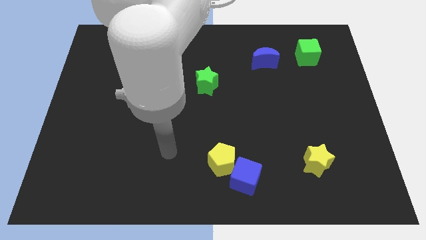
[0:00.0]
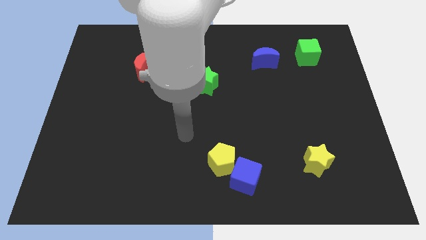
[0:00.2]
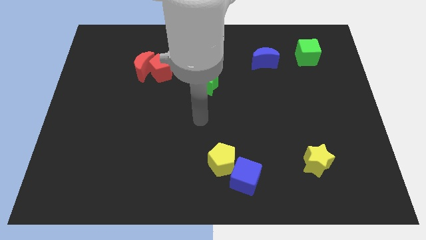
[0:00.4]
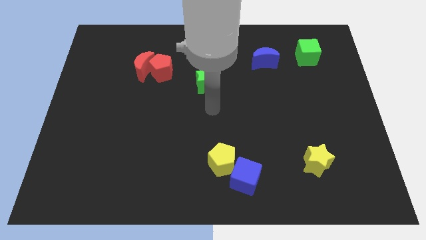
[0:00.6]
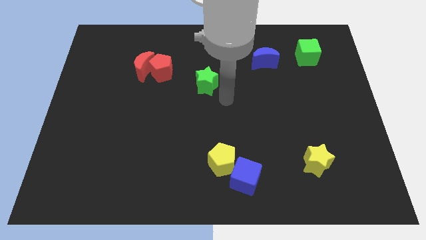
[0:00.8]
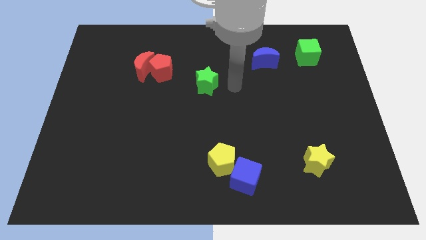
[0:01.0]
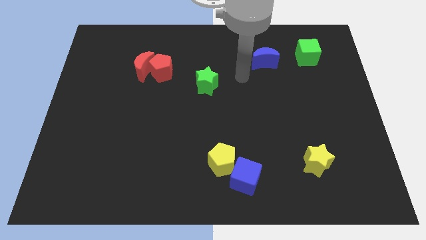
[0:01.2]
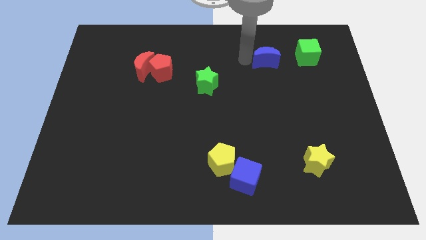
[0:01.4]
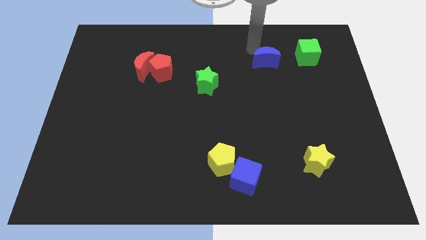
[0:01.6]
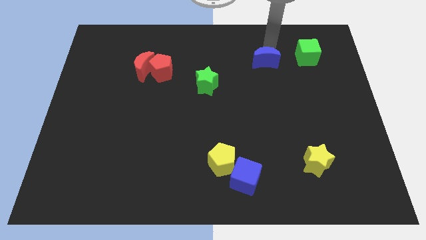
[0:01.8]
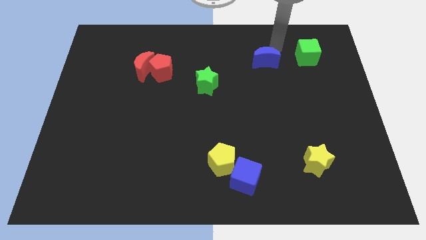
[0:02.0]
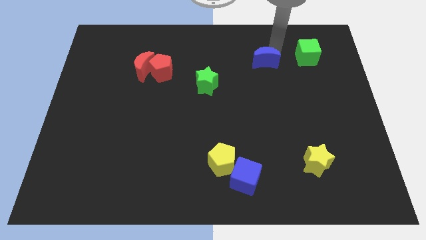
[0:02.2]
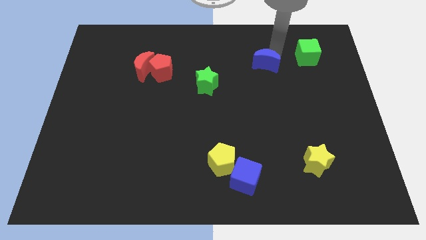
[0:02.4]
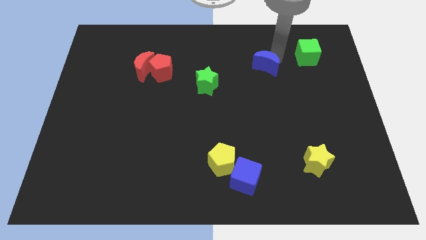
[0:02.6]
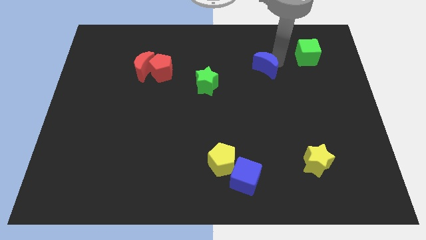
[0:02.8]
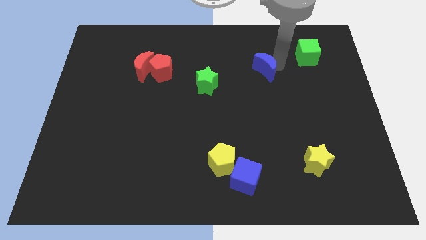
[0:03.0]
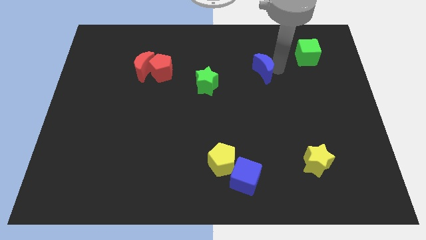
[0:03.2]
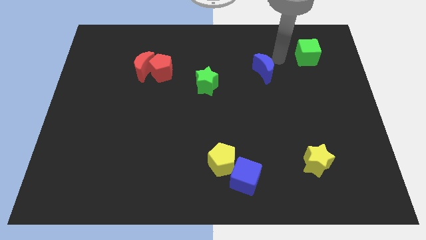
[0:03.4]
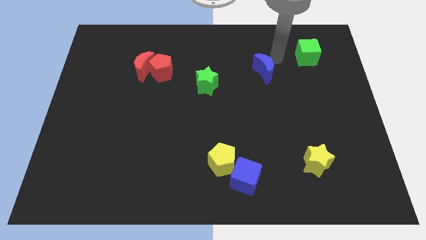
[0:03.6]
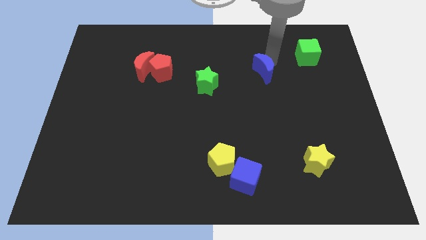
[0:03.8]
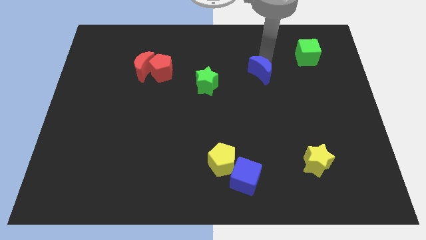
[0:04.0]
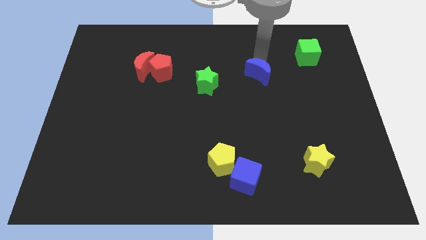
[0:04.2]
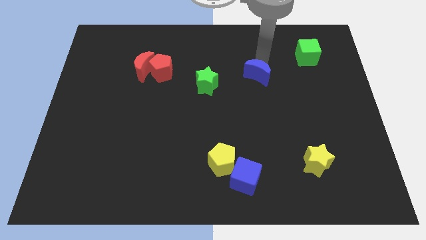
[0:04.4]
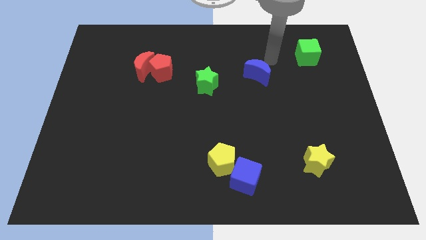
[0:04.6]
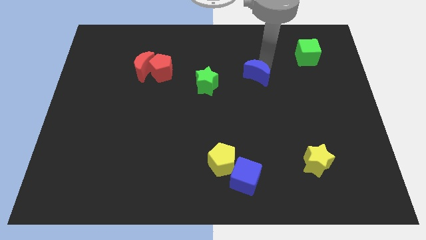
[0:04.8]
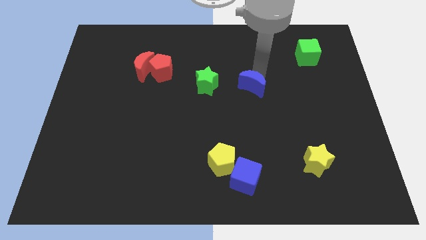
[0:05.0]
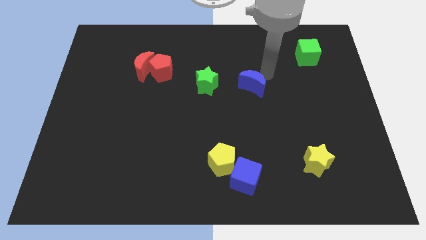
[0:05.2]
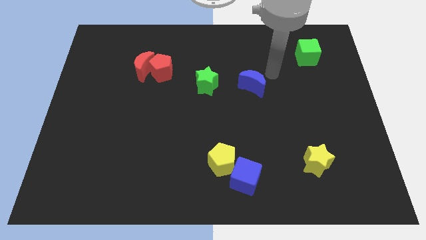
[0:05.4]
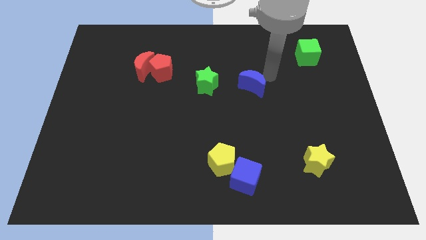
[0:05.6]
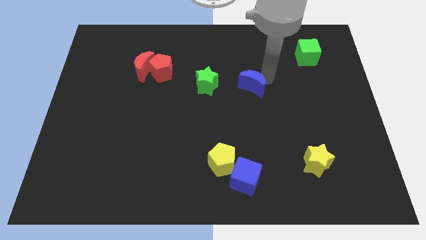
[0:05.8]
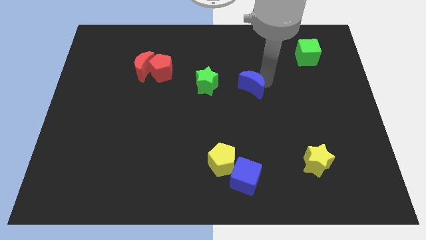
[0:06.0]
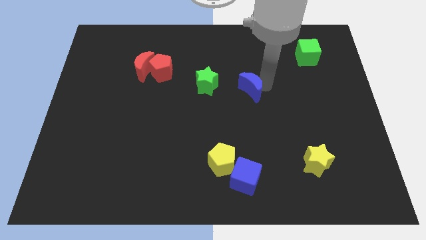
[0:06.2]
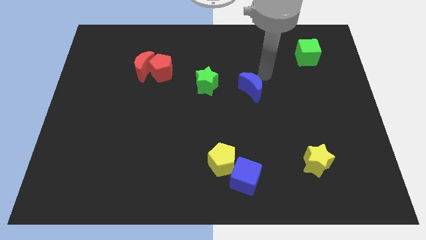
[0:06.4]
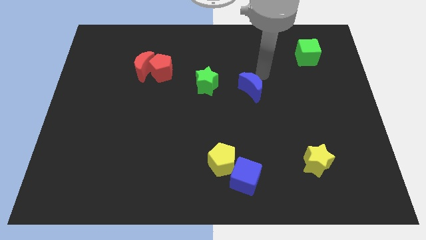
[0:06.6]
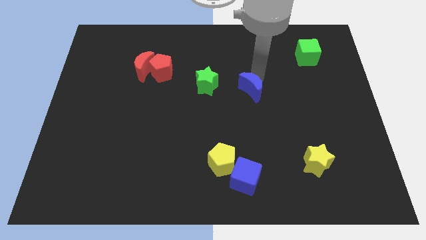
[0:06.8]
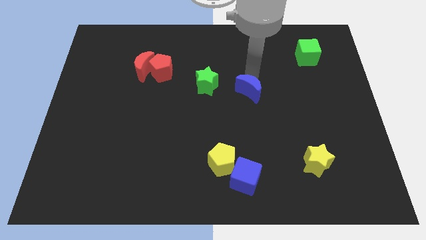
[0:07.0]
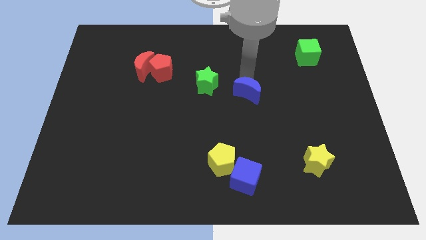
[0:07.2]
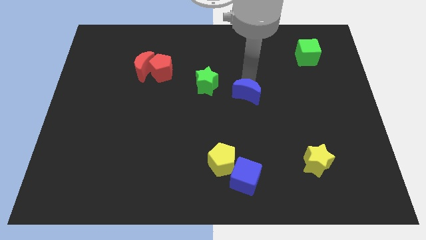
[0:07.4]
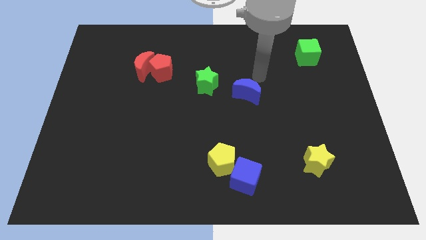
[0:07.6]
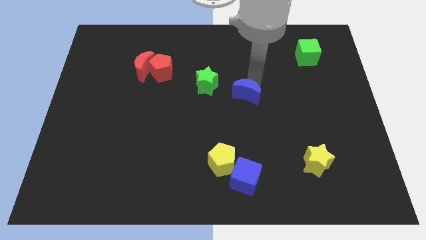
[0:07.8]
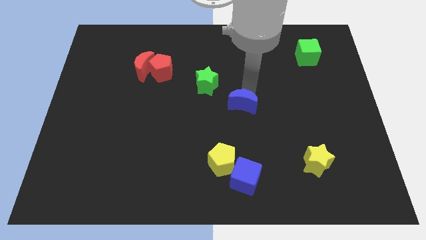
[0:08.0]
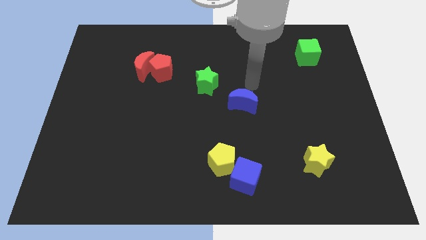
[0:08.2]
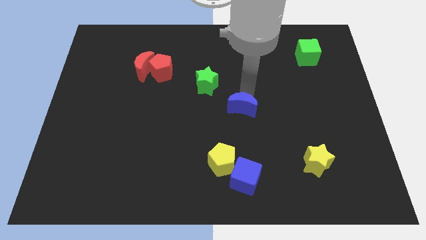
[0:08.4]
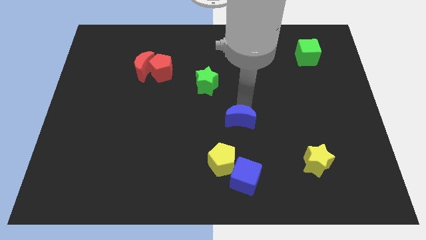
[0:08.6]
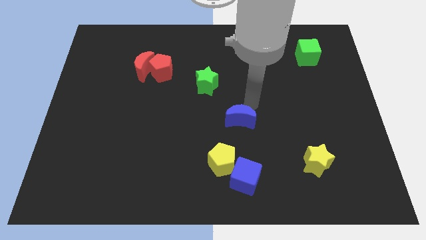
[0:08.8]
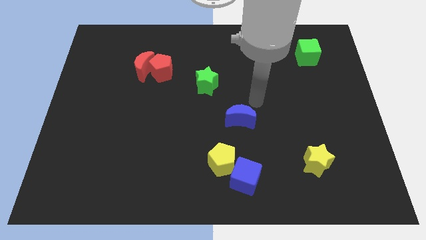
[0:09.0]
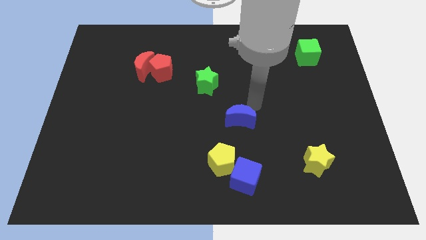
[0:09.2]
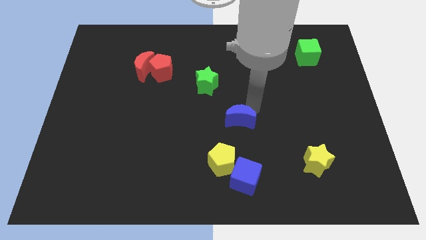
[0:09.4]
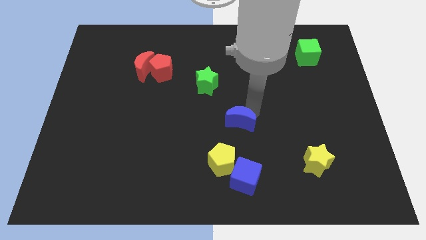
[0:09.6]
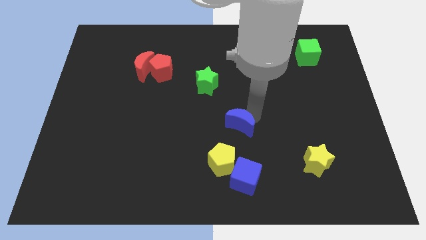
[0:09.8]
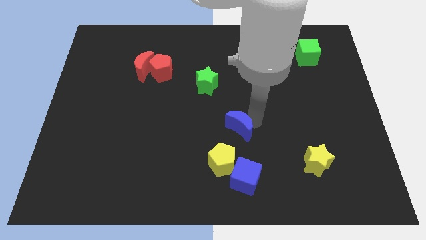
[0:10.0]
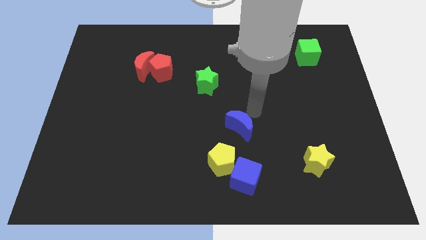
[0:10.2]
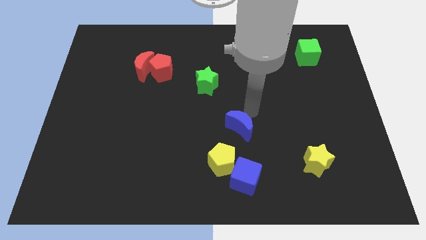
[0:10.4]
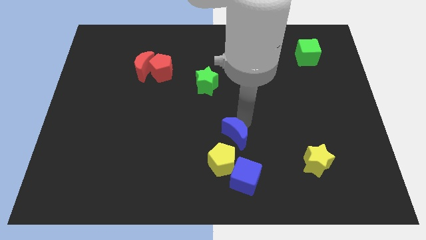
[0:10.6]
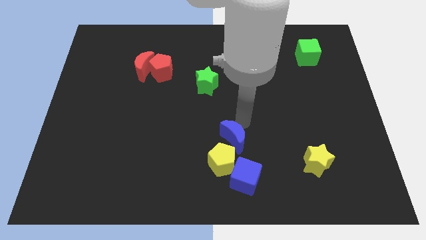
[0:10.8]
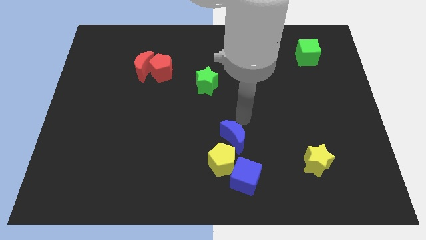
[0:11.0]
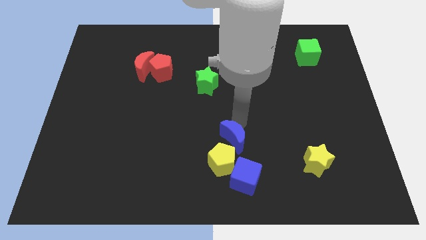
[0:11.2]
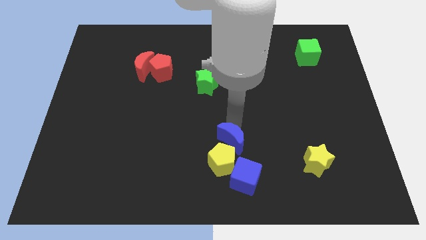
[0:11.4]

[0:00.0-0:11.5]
move the blue moon to the yellow pentagon

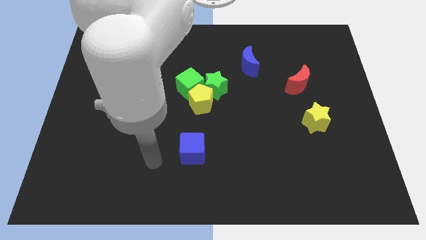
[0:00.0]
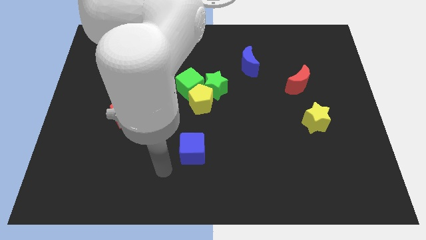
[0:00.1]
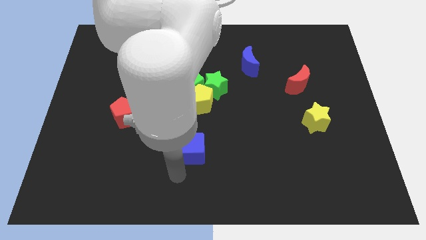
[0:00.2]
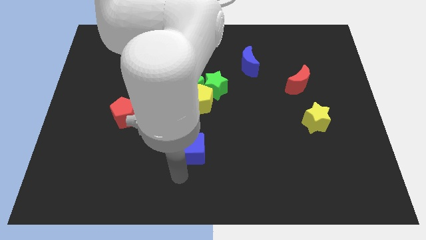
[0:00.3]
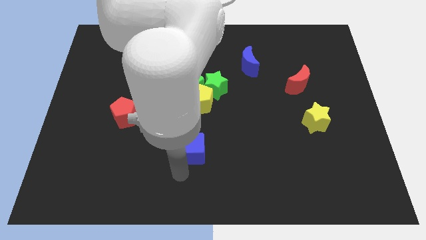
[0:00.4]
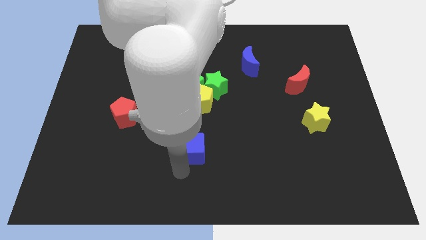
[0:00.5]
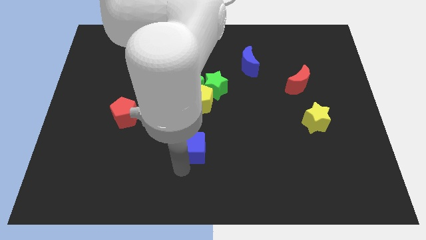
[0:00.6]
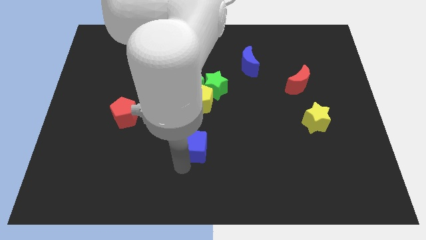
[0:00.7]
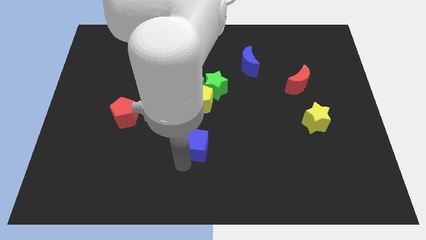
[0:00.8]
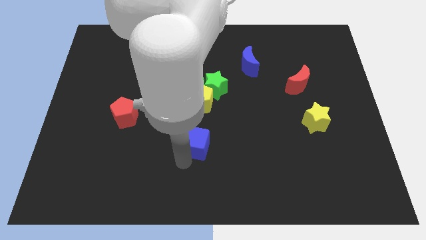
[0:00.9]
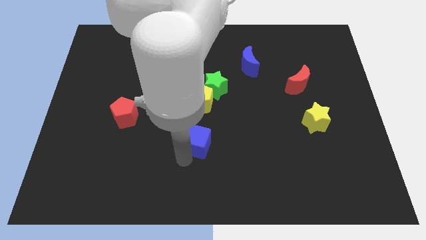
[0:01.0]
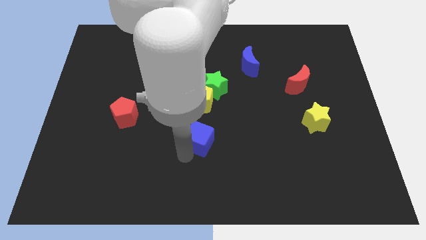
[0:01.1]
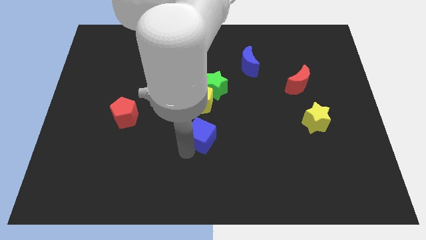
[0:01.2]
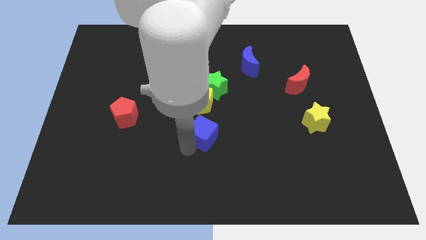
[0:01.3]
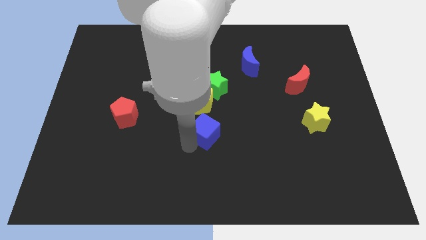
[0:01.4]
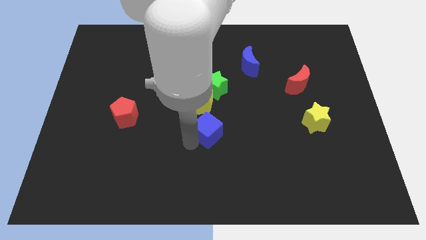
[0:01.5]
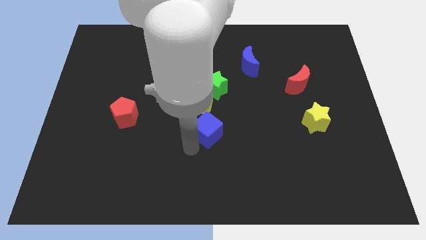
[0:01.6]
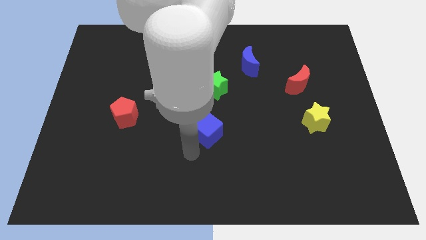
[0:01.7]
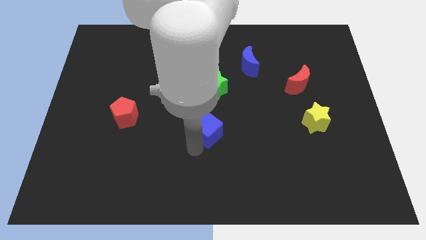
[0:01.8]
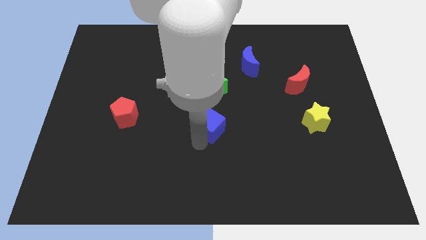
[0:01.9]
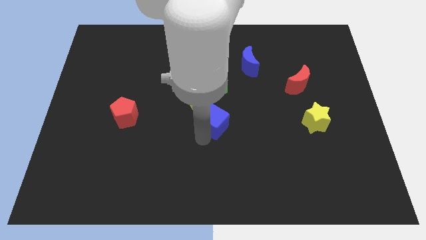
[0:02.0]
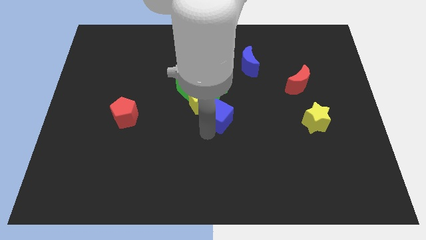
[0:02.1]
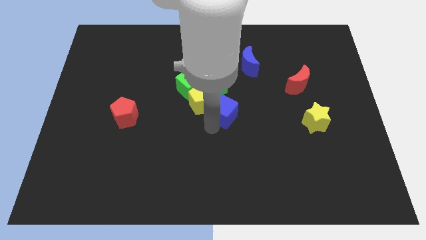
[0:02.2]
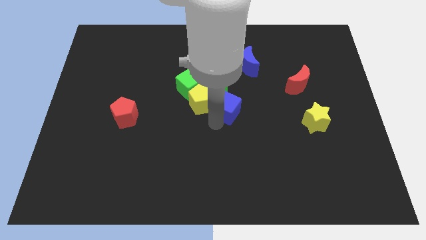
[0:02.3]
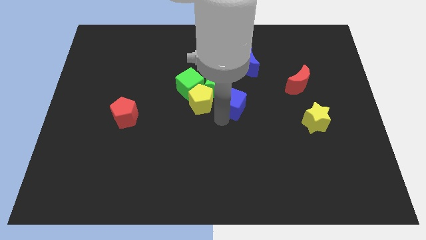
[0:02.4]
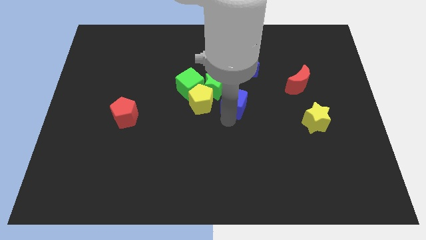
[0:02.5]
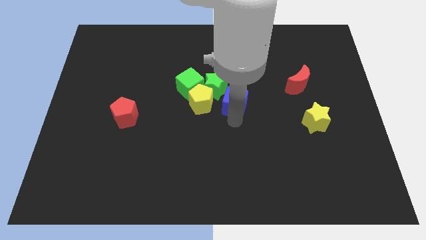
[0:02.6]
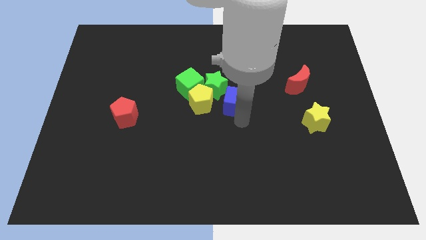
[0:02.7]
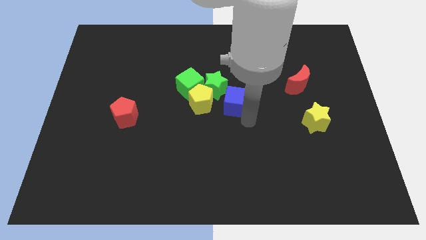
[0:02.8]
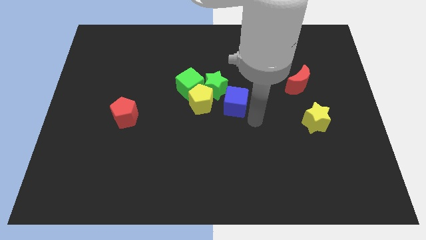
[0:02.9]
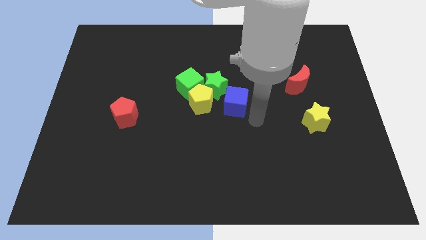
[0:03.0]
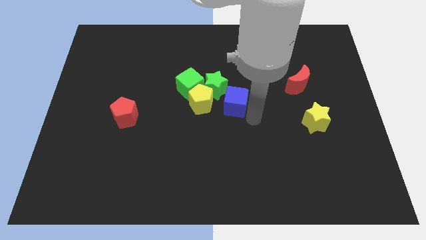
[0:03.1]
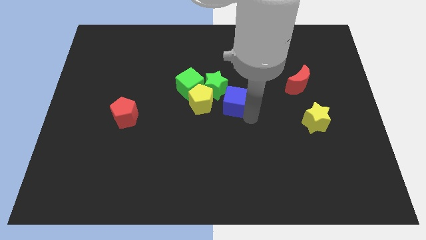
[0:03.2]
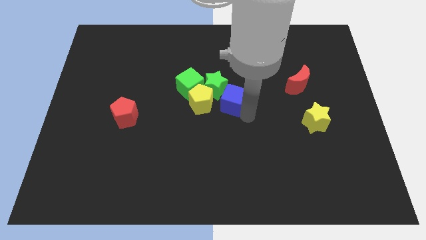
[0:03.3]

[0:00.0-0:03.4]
push the blue cube close to the green star
